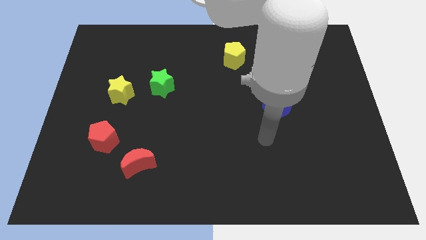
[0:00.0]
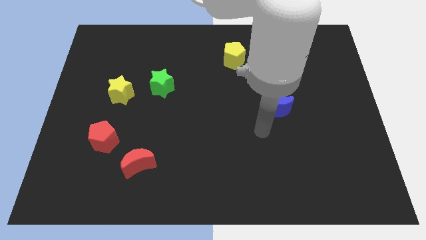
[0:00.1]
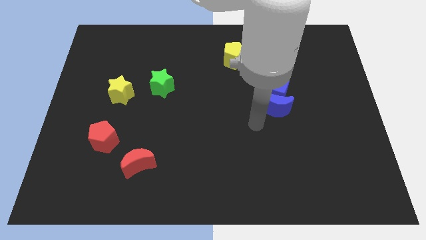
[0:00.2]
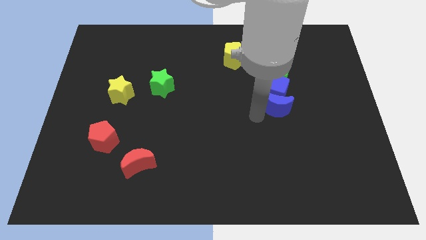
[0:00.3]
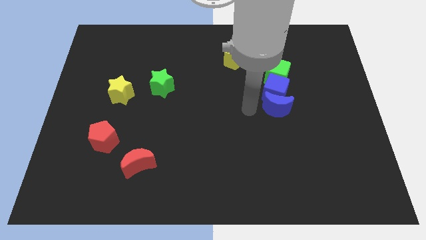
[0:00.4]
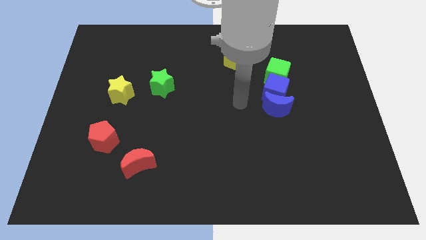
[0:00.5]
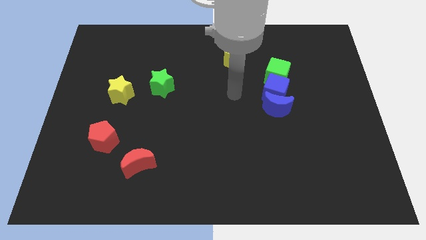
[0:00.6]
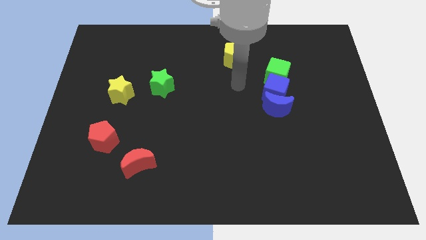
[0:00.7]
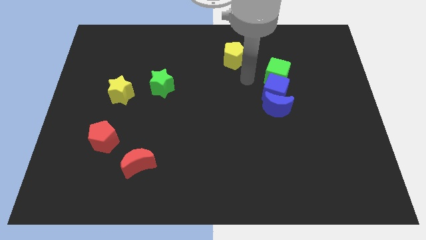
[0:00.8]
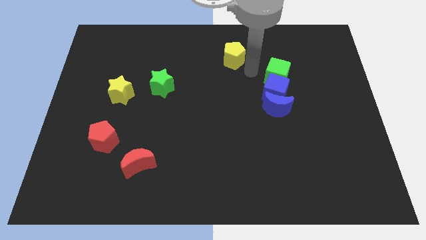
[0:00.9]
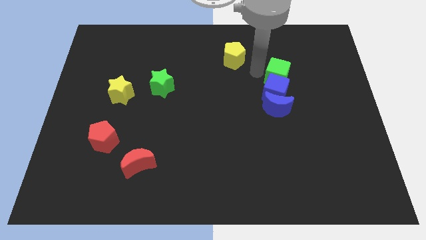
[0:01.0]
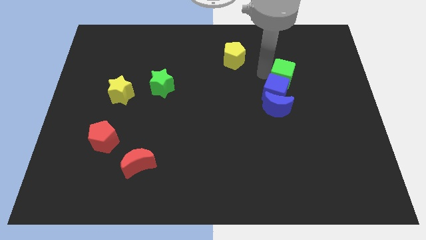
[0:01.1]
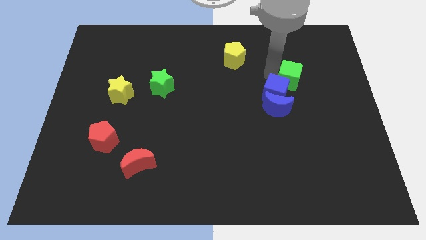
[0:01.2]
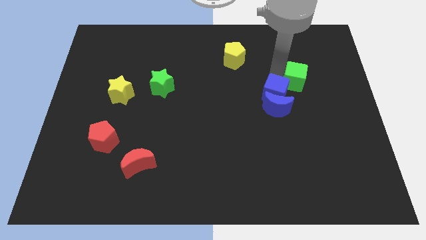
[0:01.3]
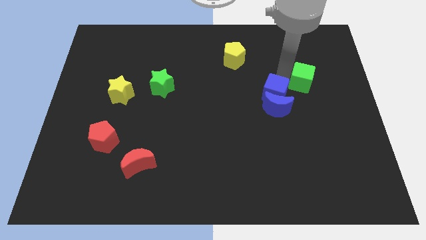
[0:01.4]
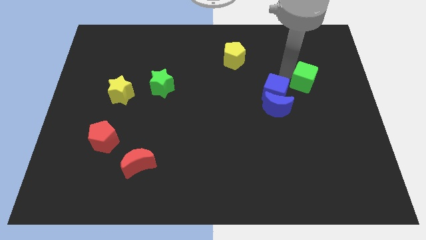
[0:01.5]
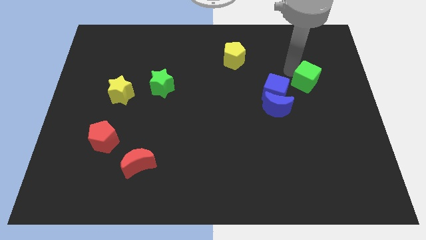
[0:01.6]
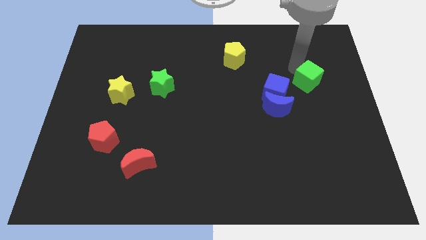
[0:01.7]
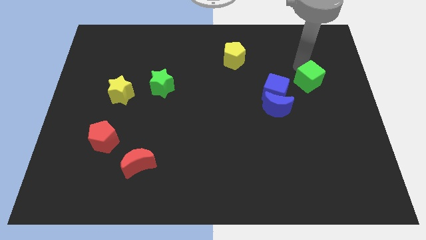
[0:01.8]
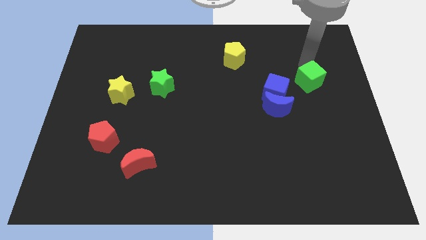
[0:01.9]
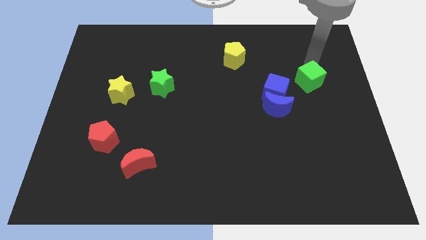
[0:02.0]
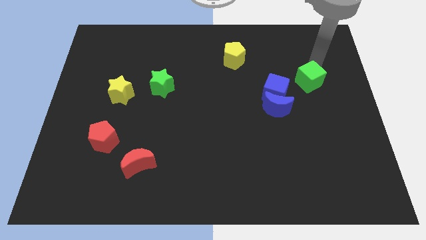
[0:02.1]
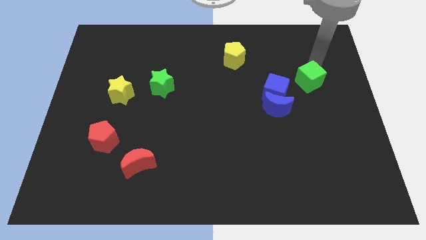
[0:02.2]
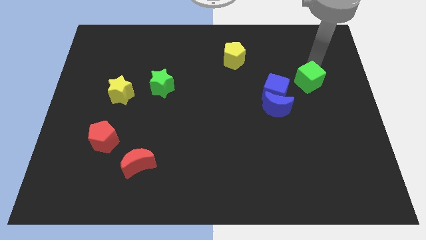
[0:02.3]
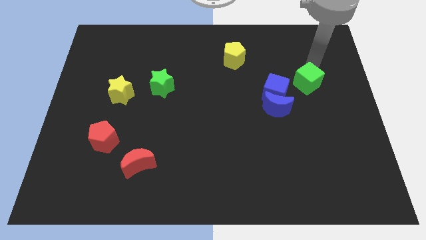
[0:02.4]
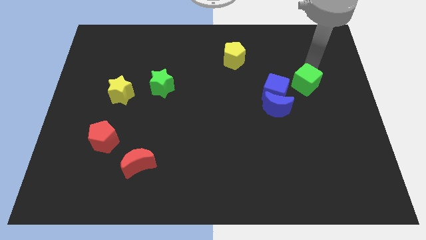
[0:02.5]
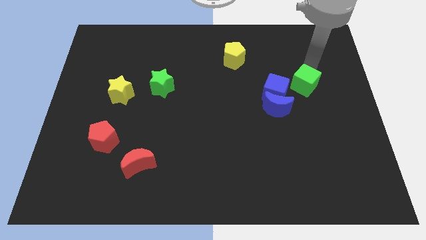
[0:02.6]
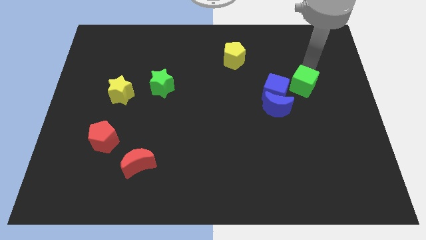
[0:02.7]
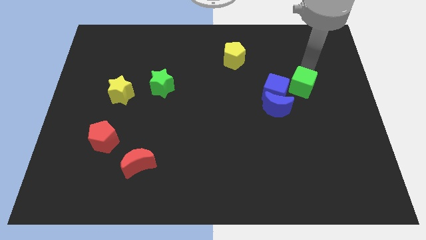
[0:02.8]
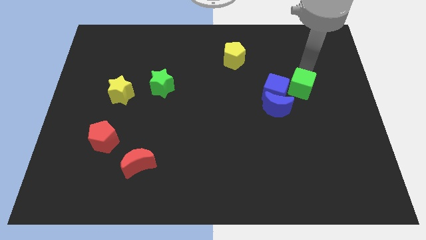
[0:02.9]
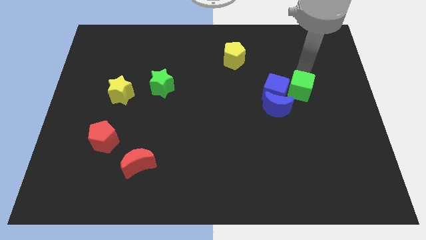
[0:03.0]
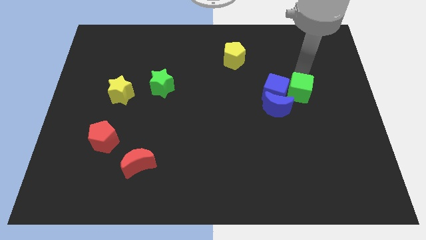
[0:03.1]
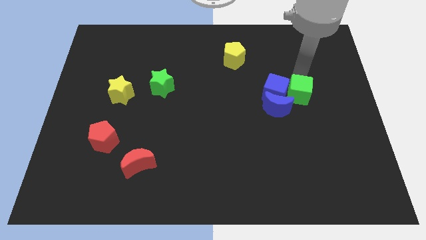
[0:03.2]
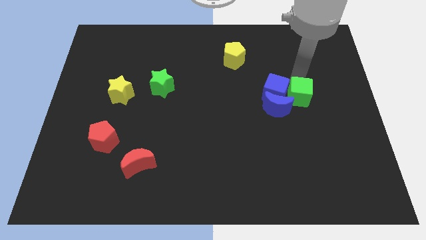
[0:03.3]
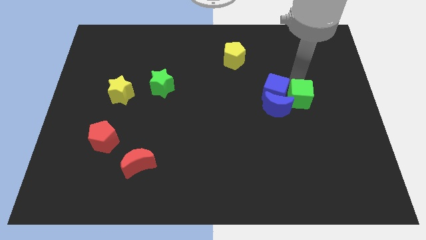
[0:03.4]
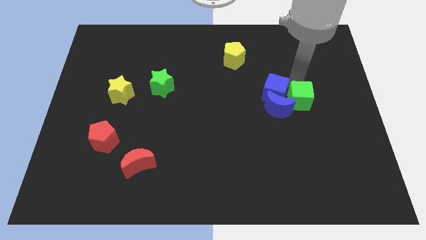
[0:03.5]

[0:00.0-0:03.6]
push the green cube down a bit

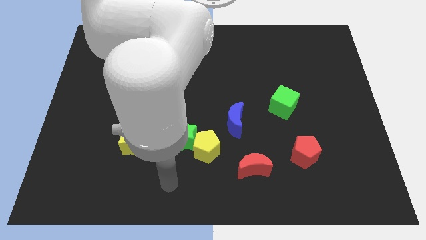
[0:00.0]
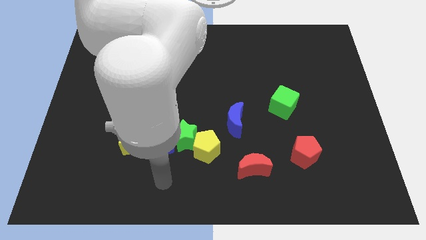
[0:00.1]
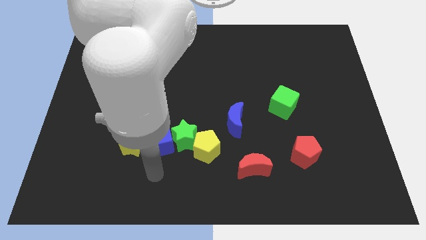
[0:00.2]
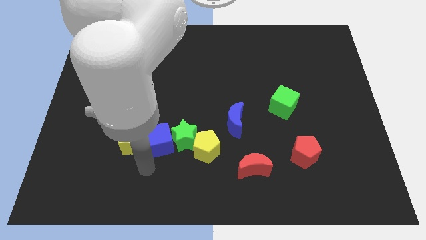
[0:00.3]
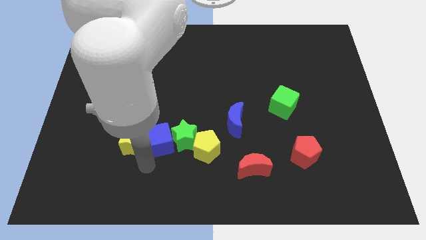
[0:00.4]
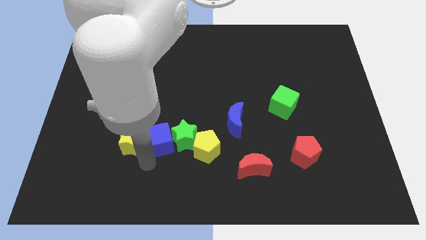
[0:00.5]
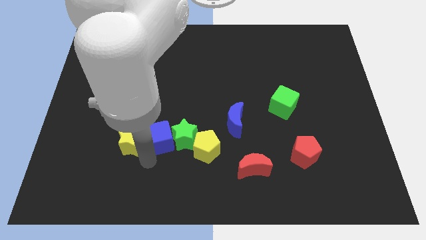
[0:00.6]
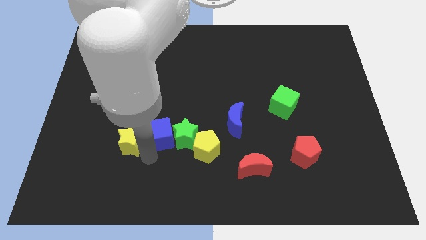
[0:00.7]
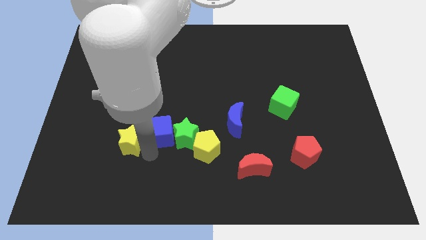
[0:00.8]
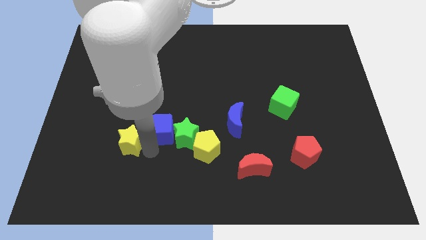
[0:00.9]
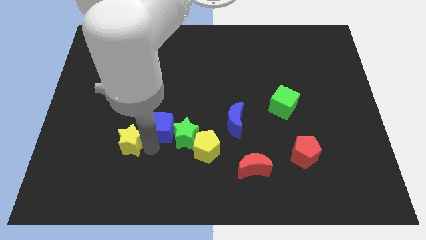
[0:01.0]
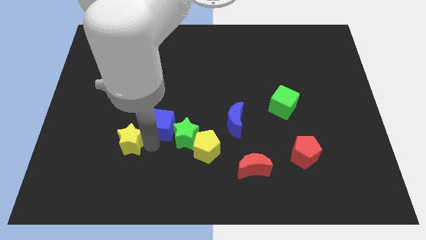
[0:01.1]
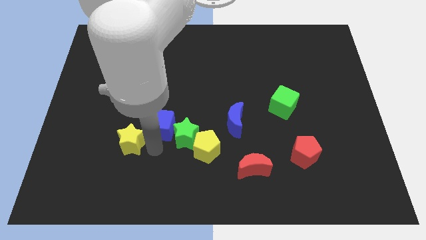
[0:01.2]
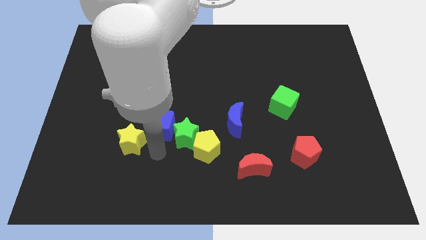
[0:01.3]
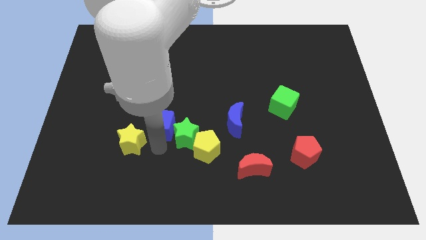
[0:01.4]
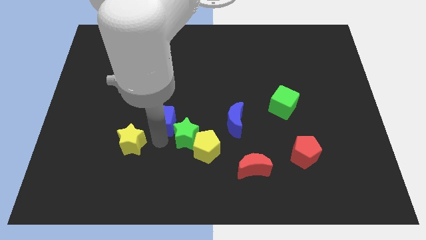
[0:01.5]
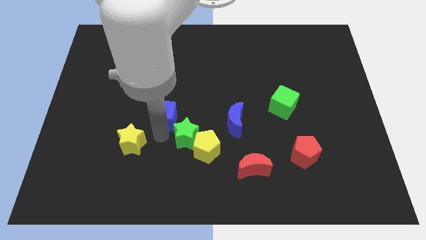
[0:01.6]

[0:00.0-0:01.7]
move the blue cube upwards slightly

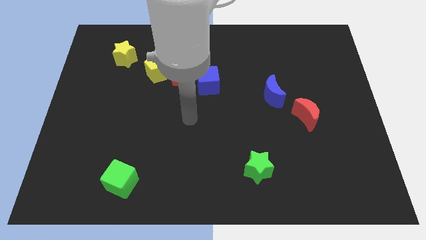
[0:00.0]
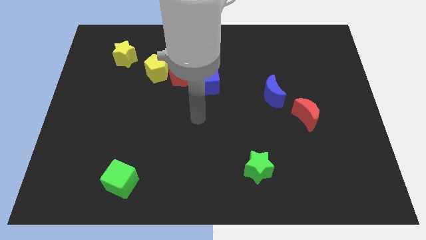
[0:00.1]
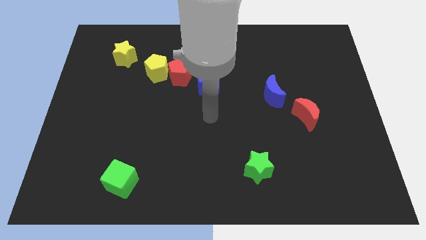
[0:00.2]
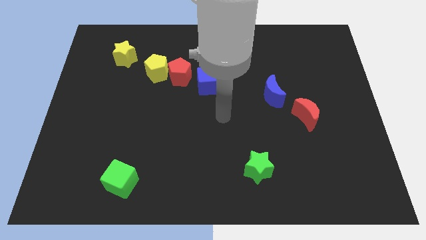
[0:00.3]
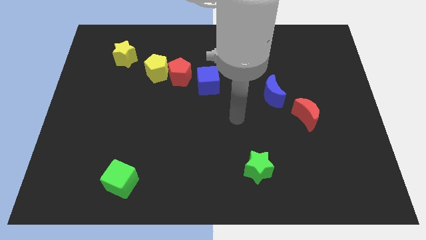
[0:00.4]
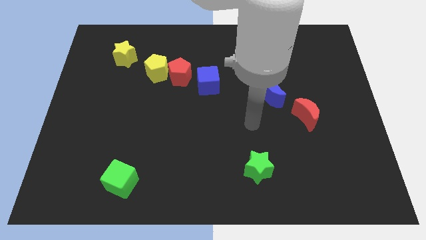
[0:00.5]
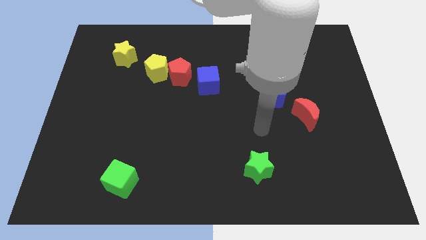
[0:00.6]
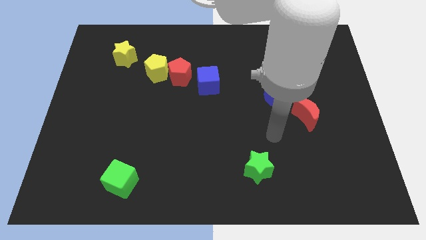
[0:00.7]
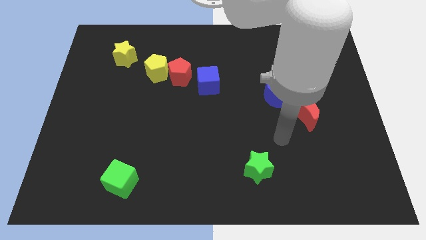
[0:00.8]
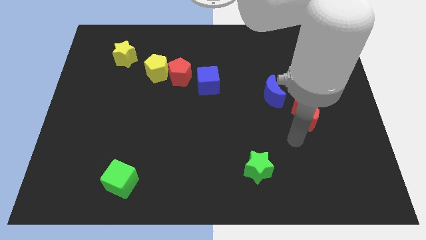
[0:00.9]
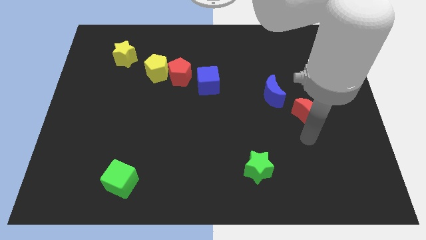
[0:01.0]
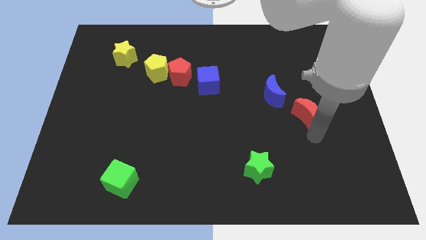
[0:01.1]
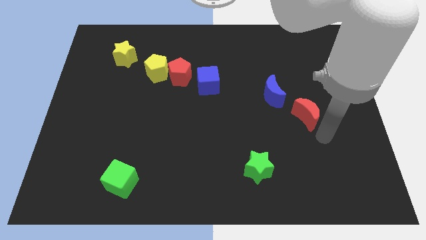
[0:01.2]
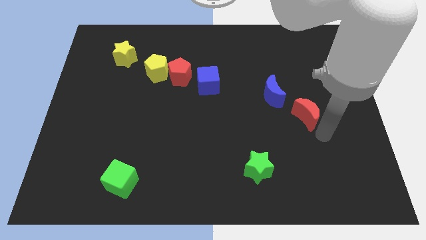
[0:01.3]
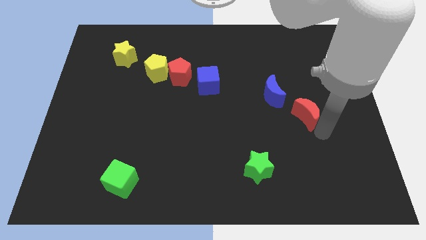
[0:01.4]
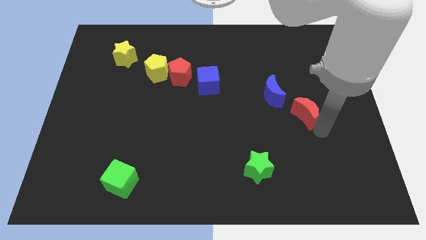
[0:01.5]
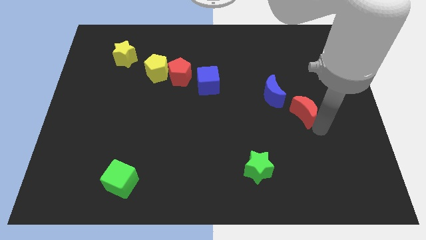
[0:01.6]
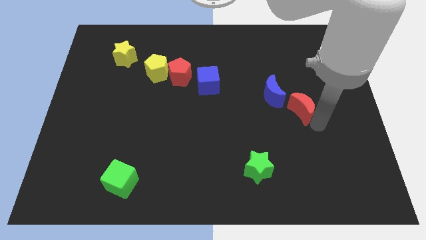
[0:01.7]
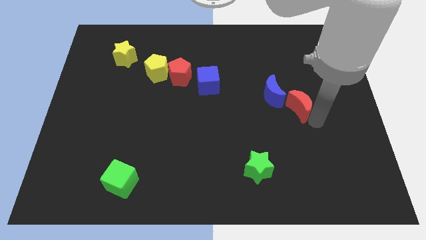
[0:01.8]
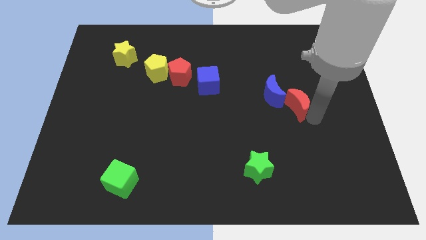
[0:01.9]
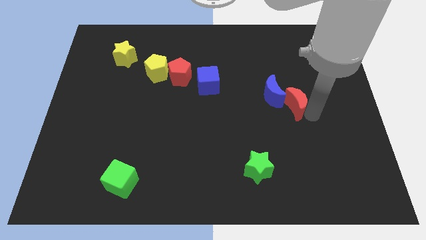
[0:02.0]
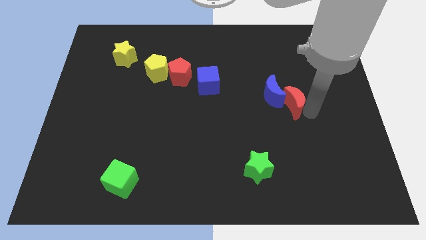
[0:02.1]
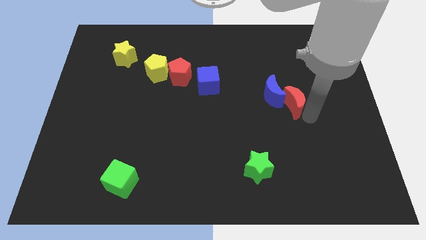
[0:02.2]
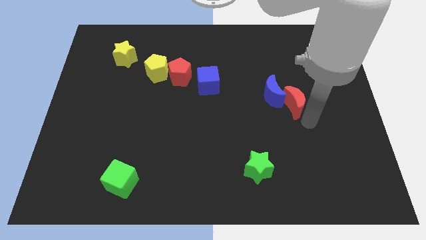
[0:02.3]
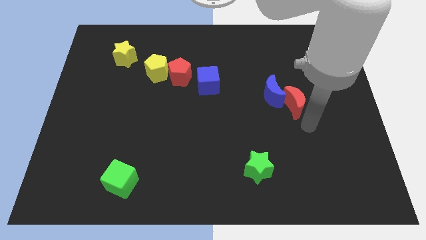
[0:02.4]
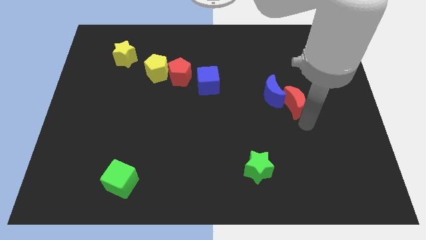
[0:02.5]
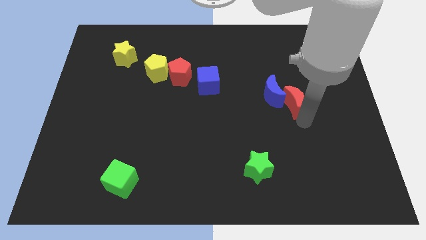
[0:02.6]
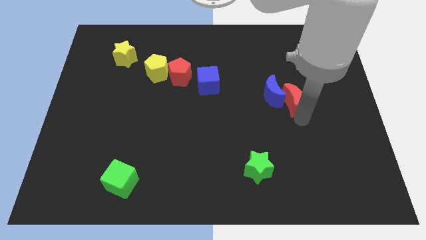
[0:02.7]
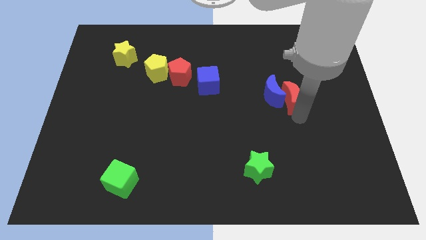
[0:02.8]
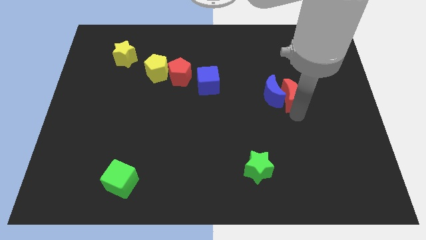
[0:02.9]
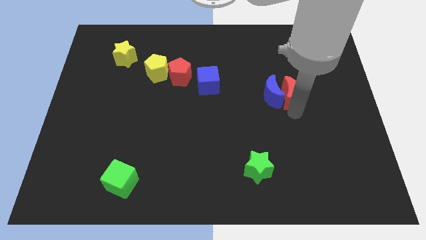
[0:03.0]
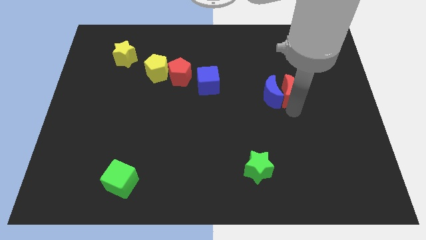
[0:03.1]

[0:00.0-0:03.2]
slide the red moon upwards and then to the left a bit
